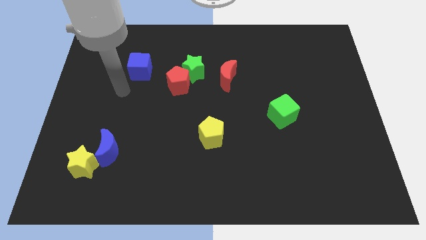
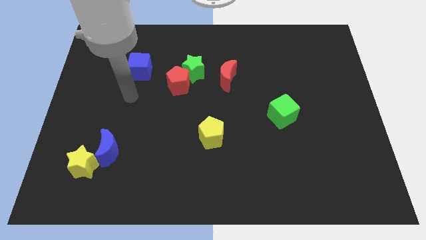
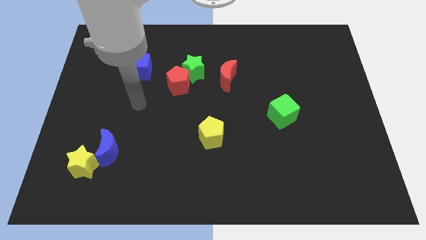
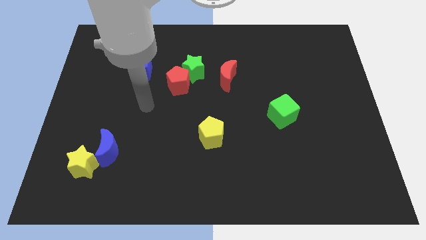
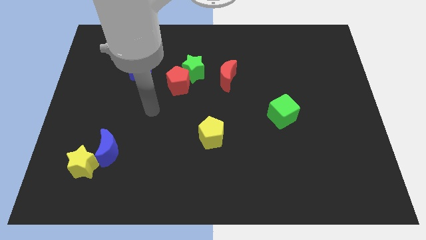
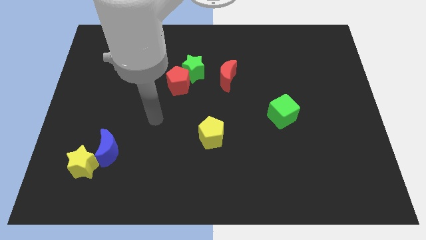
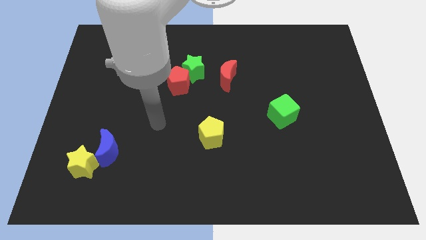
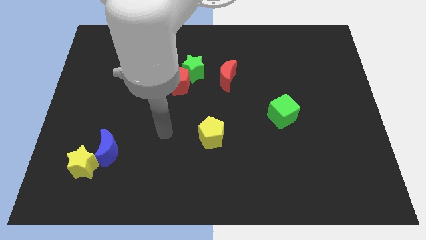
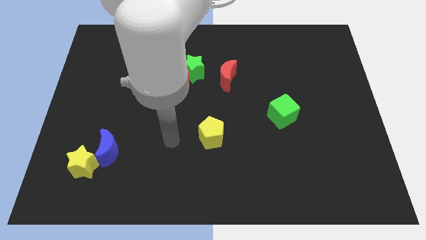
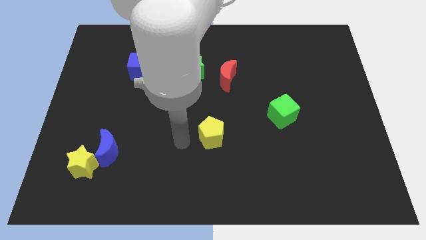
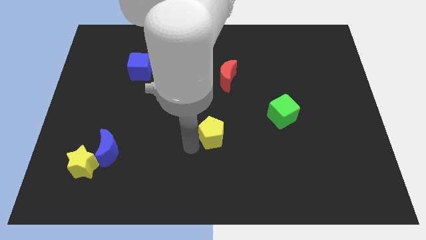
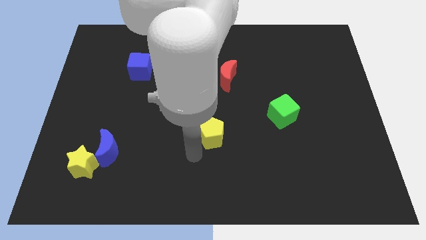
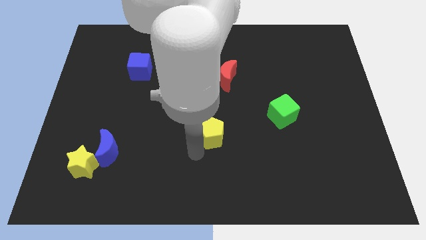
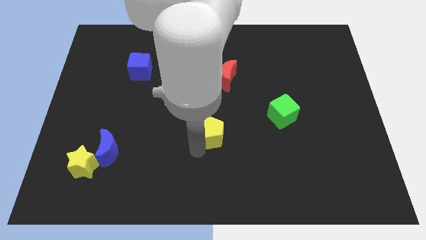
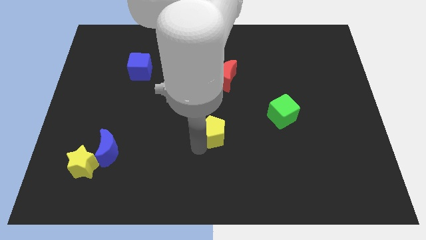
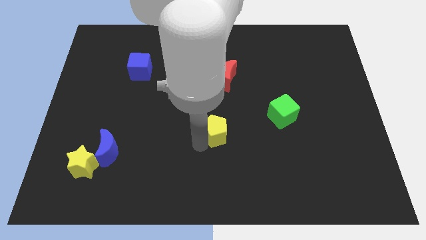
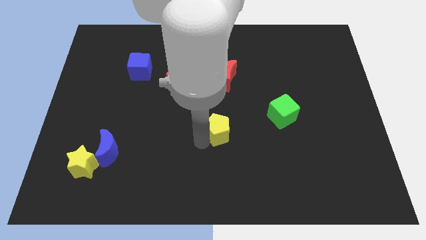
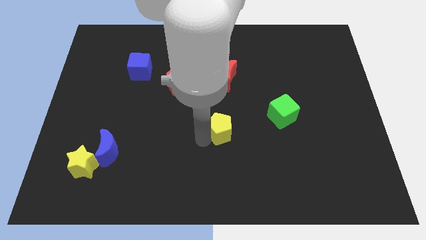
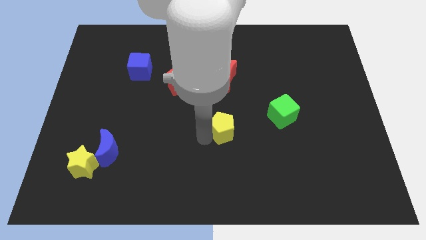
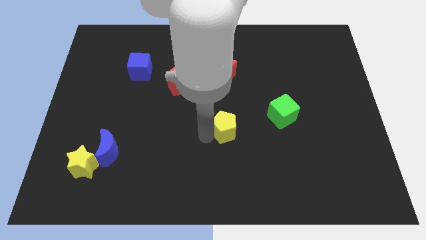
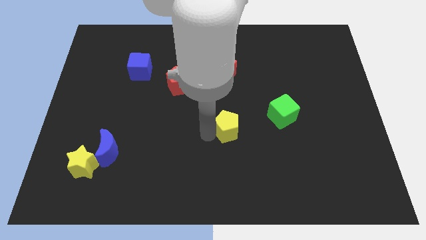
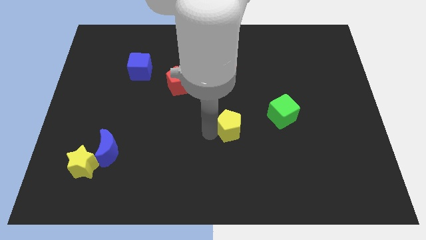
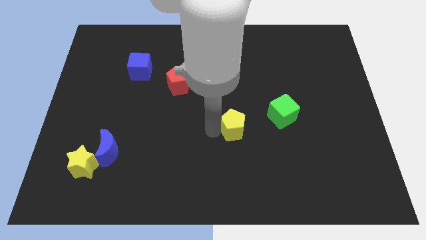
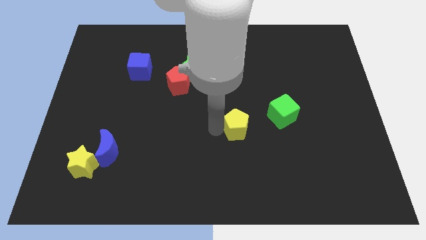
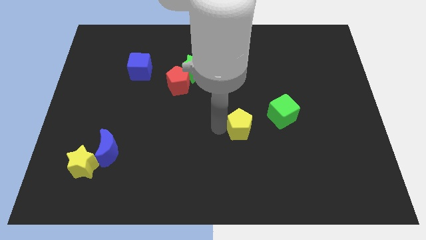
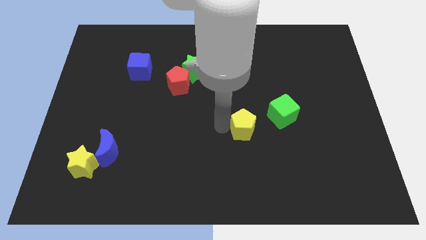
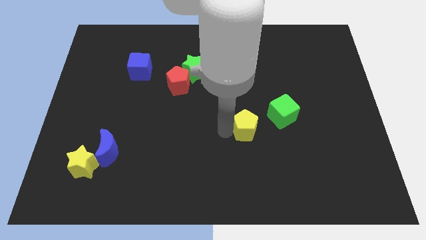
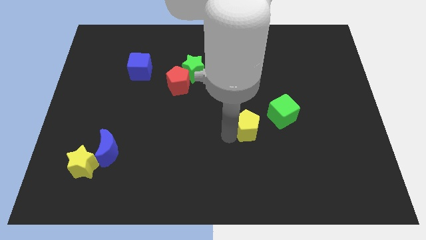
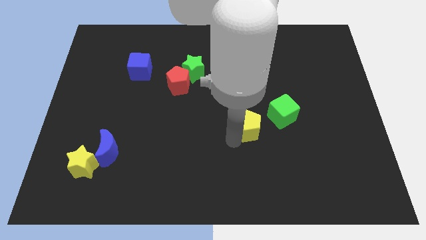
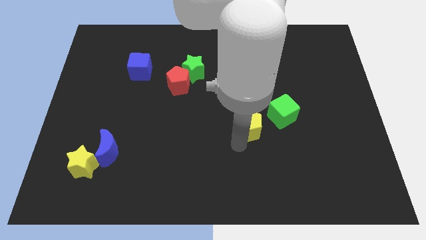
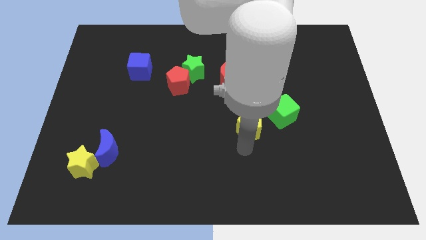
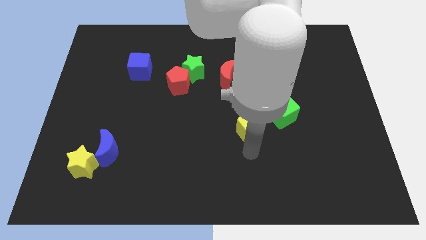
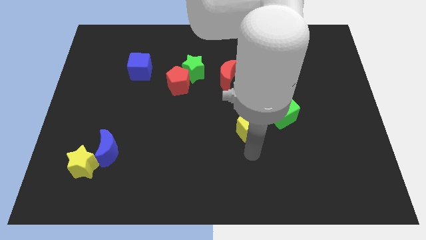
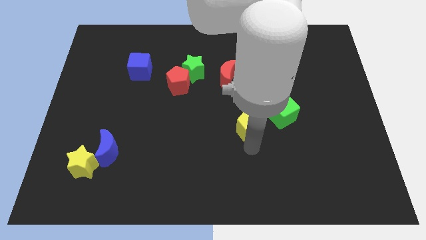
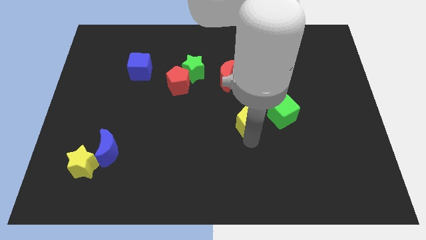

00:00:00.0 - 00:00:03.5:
push the yellow pentagon upwards and then to the right a bit

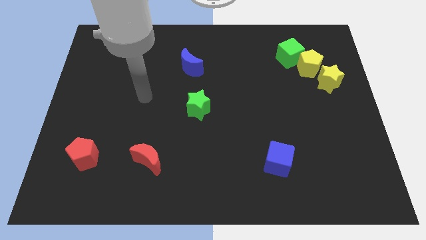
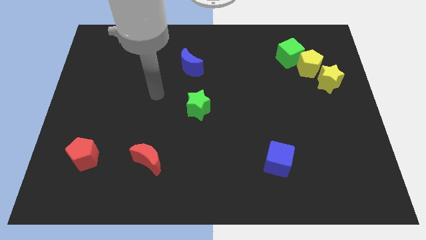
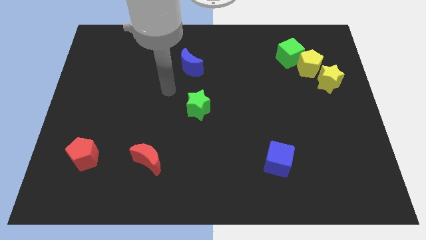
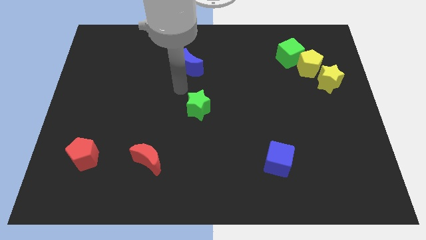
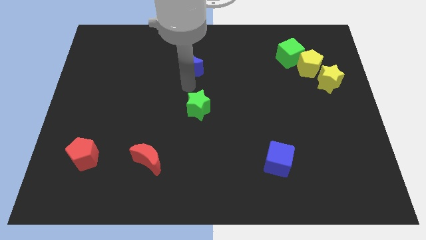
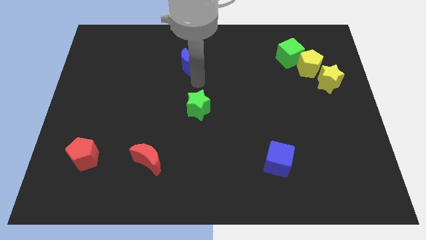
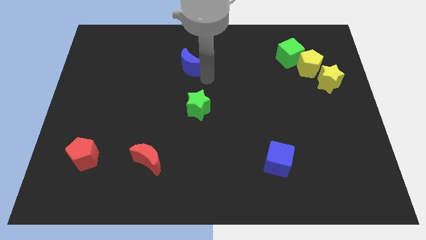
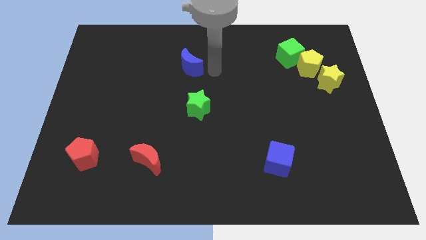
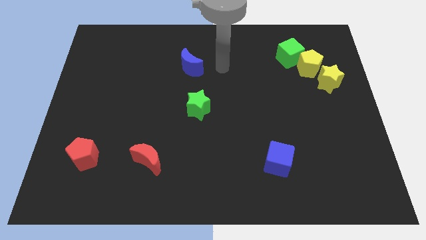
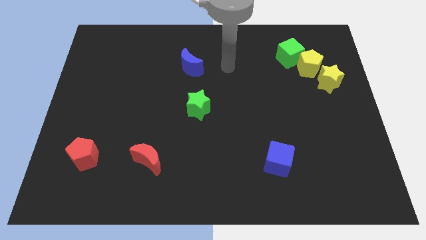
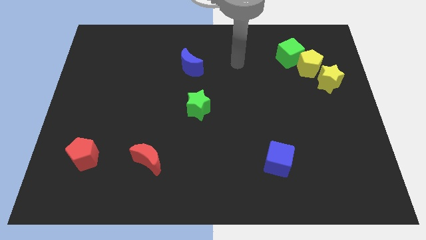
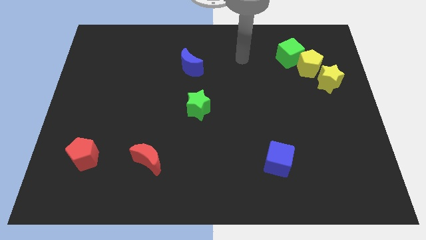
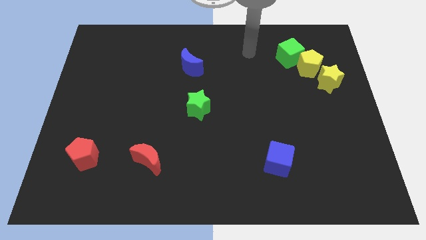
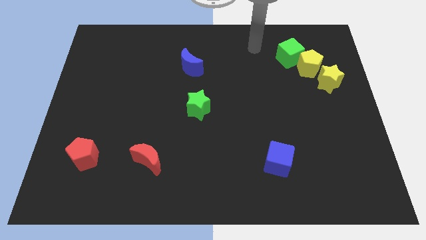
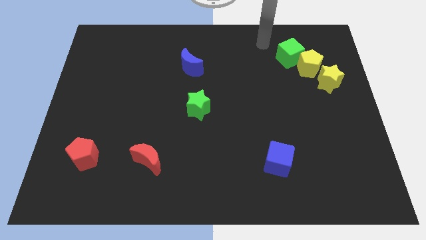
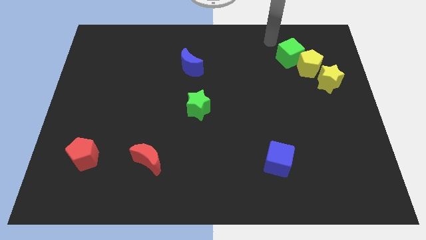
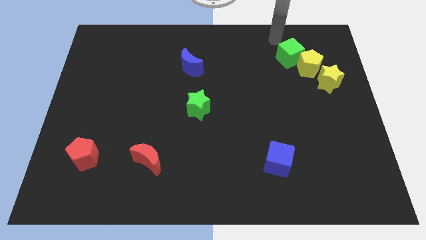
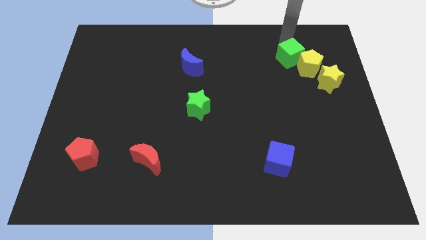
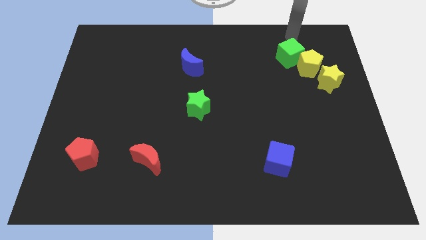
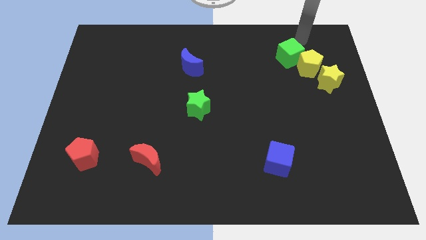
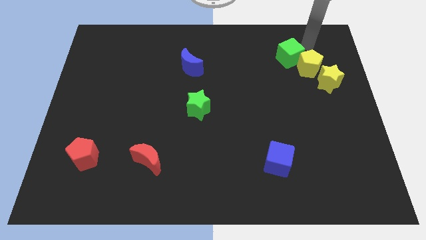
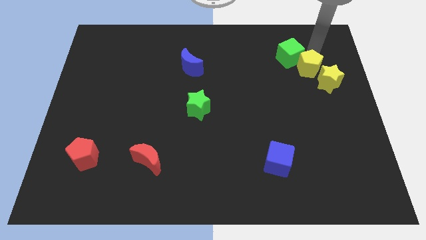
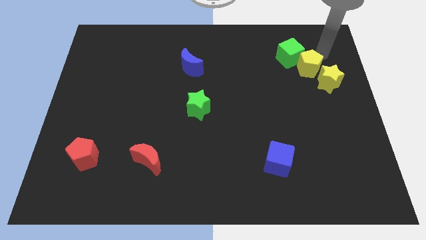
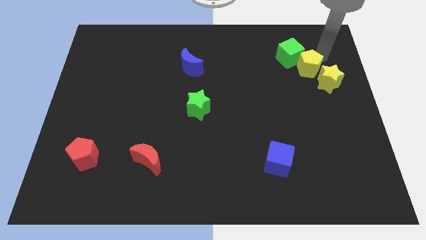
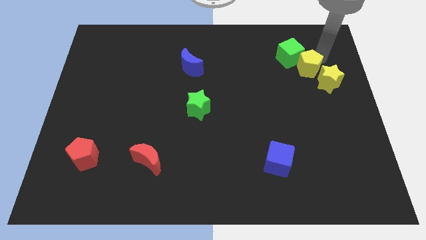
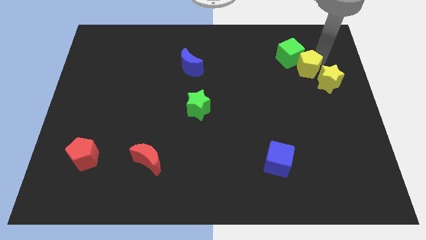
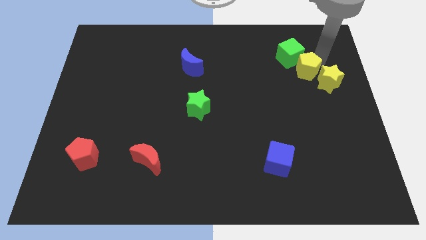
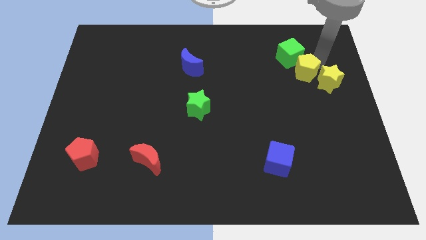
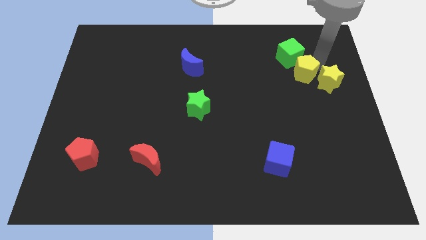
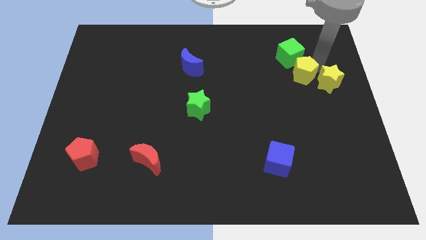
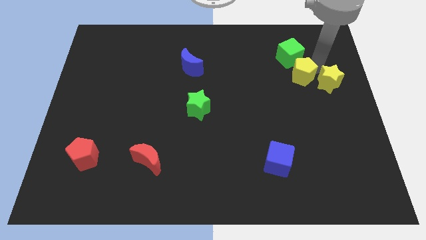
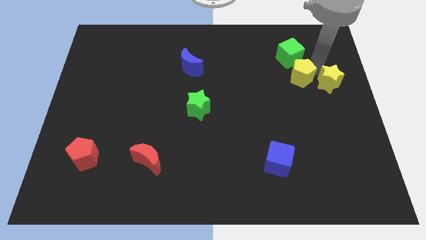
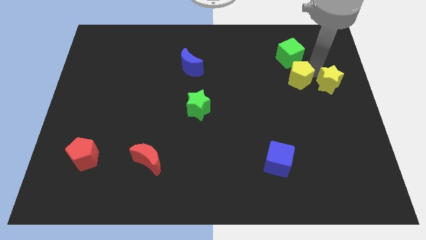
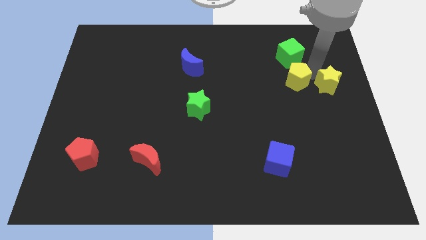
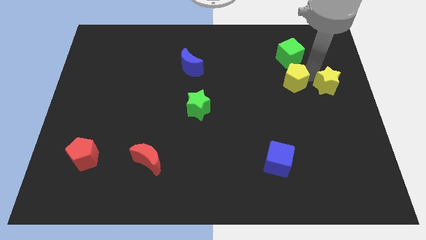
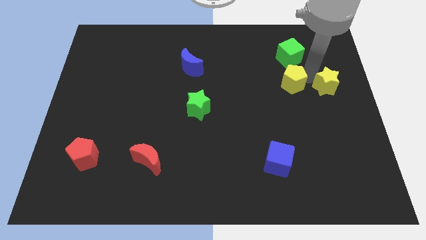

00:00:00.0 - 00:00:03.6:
slightly move the yellow pentagon downwards and left

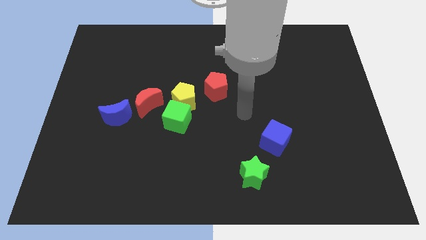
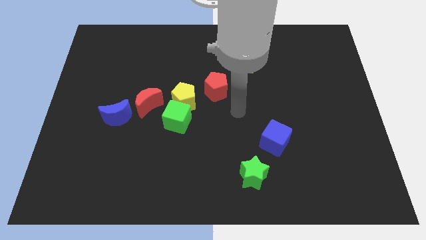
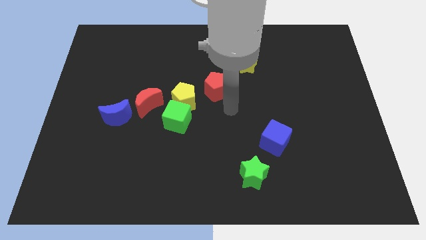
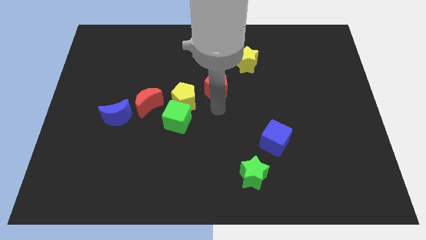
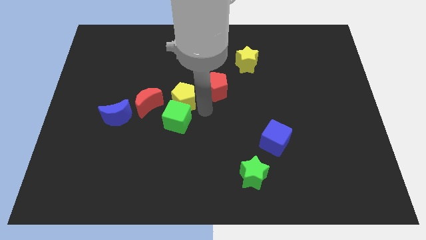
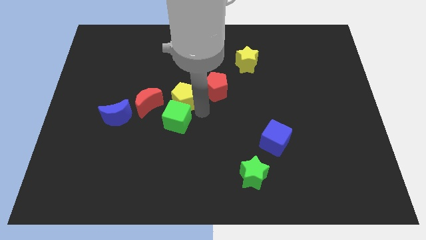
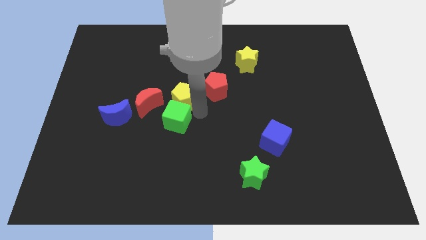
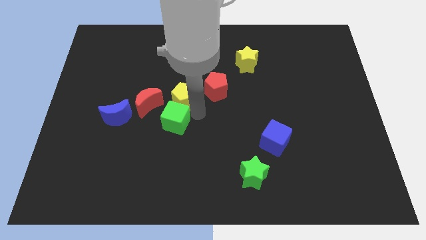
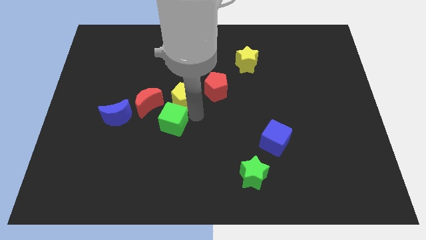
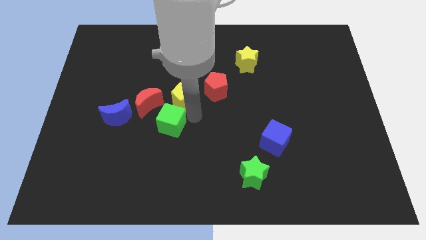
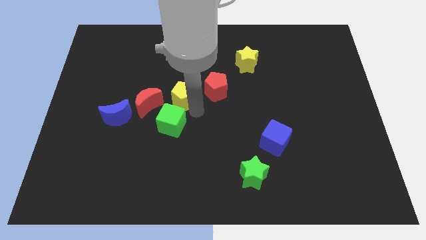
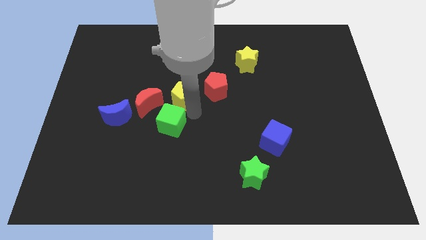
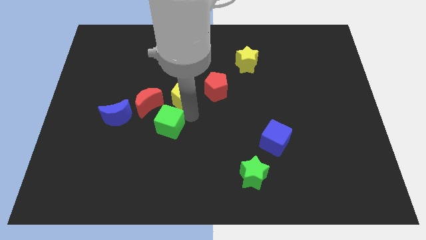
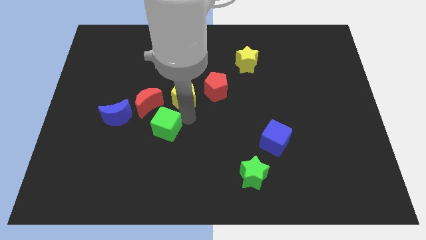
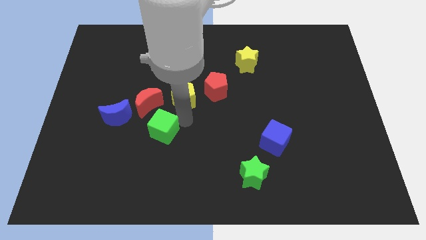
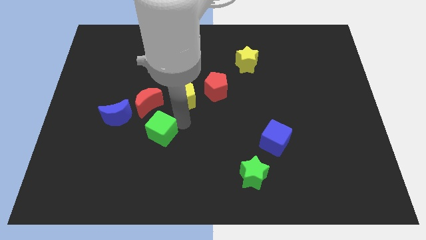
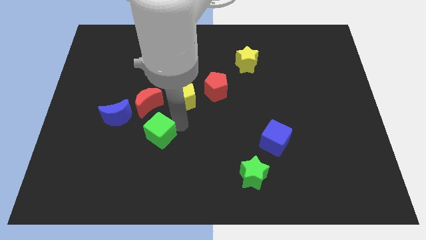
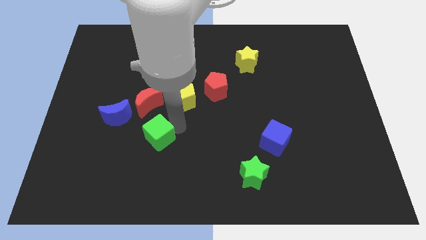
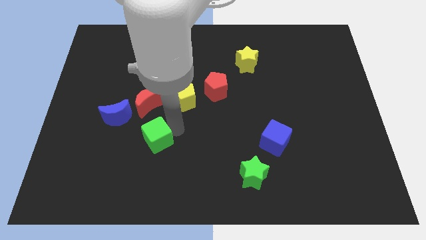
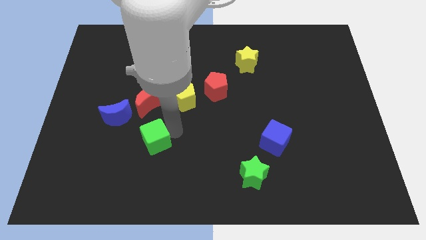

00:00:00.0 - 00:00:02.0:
push the green cube down and to the left a little
